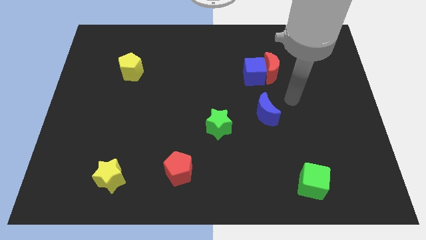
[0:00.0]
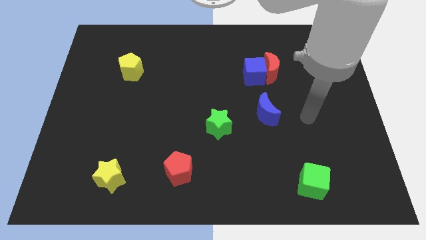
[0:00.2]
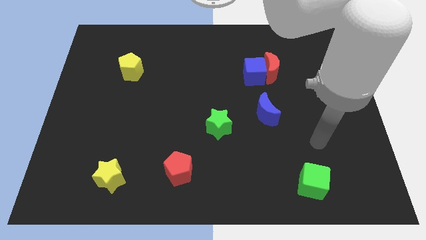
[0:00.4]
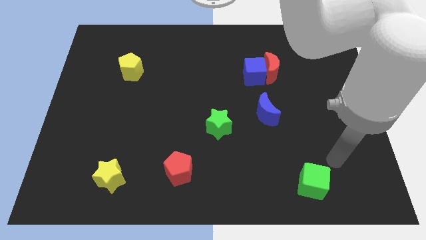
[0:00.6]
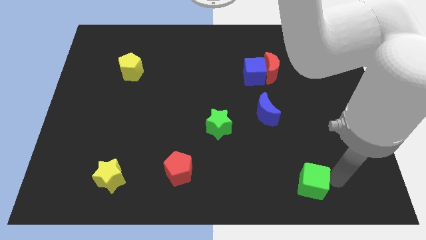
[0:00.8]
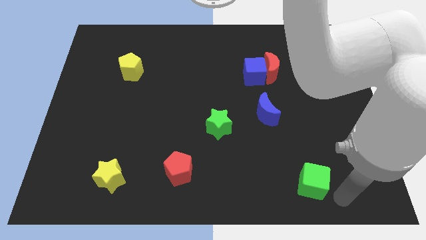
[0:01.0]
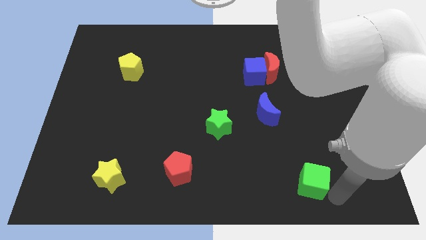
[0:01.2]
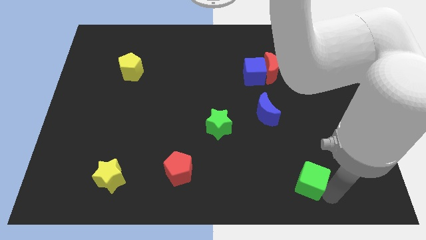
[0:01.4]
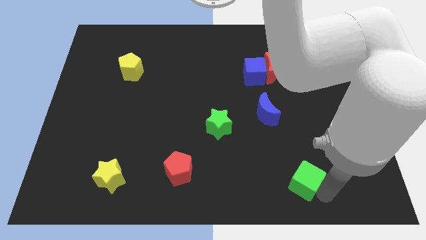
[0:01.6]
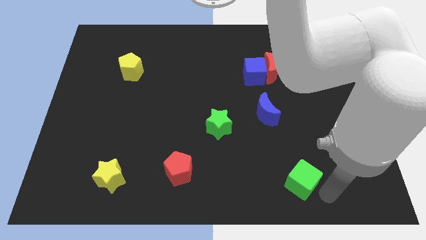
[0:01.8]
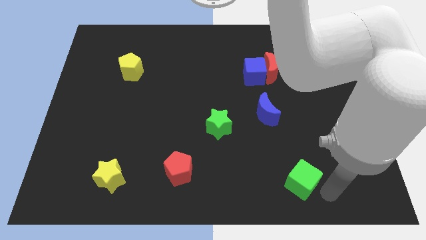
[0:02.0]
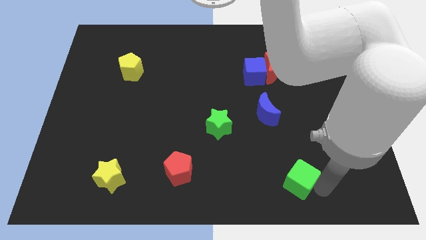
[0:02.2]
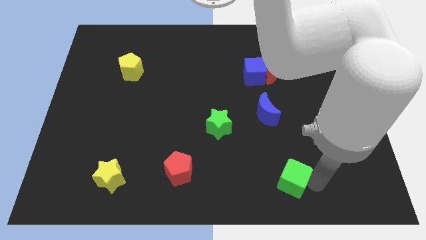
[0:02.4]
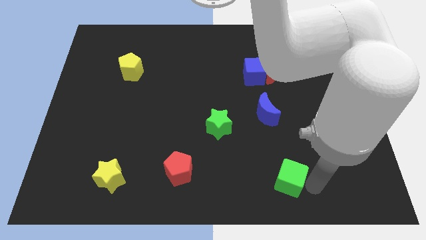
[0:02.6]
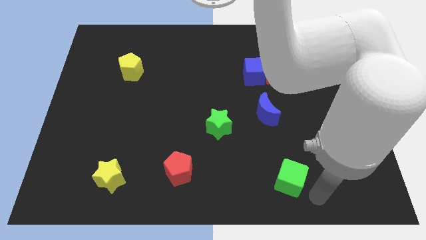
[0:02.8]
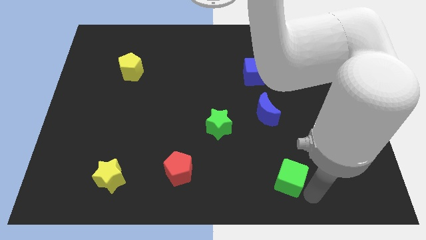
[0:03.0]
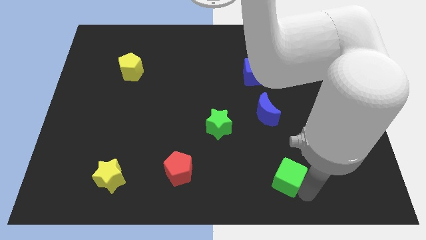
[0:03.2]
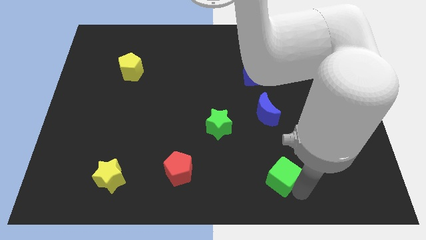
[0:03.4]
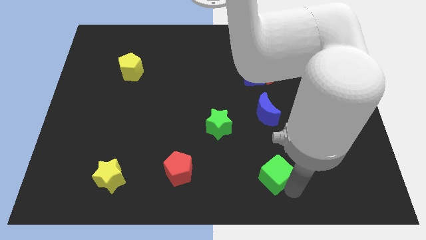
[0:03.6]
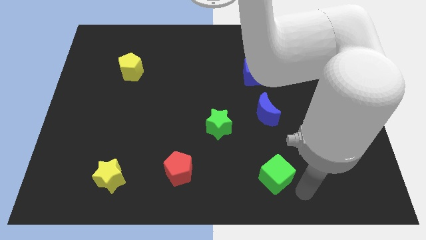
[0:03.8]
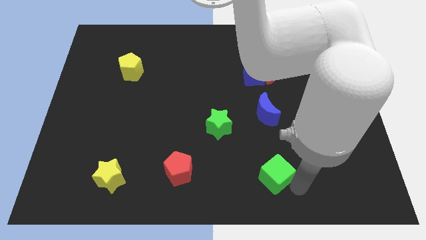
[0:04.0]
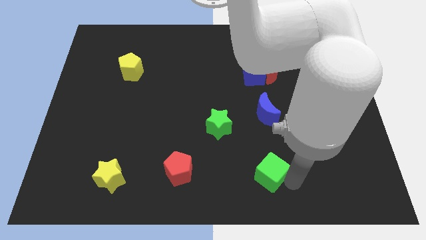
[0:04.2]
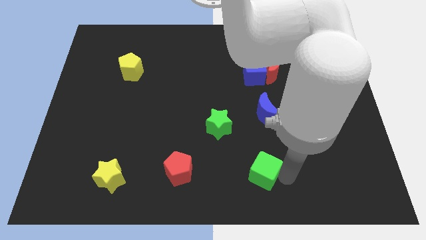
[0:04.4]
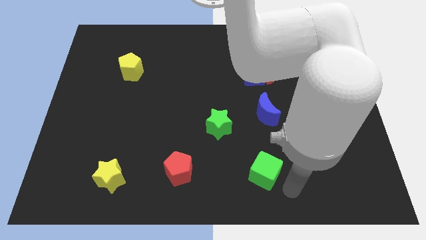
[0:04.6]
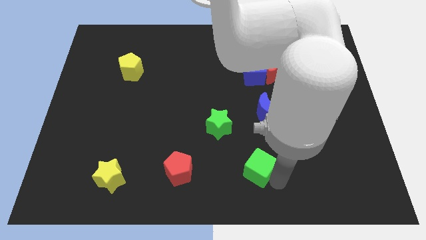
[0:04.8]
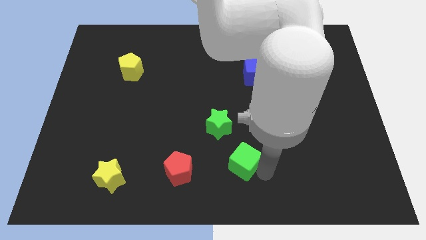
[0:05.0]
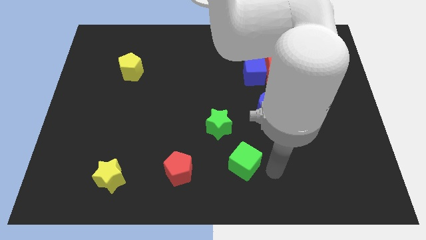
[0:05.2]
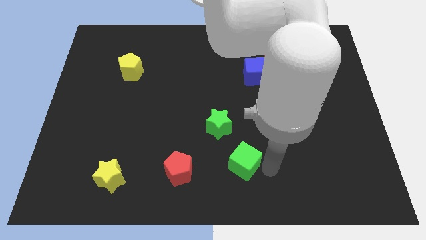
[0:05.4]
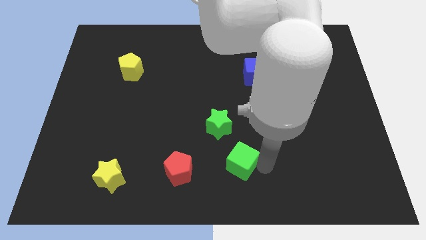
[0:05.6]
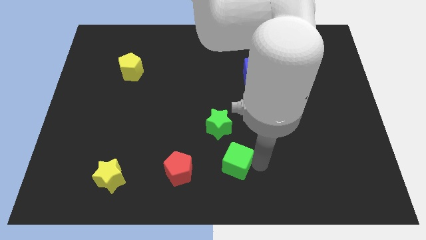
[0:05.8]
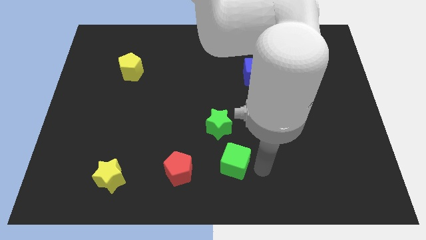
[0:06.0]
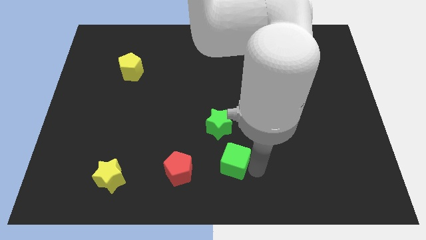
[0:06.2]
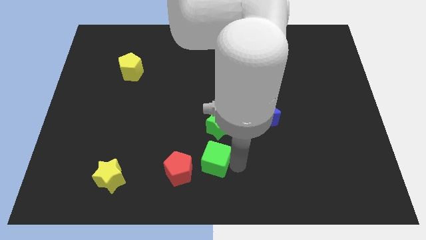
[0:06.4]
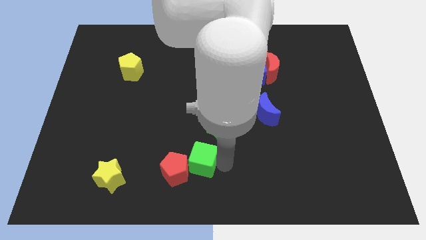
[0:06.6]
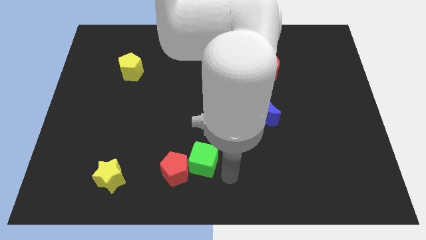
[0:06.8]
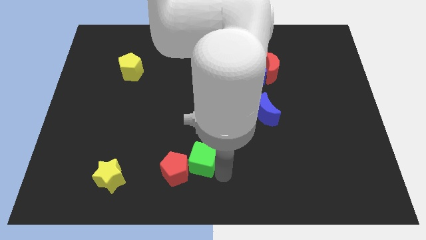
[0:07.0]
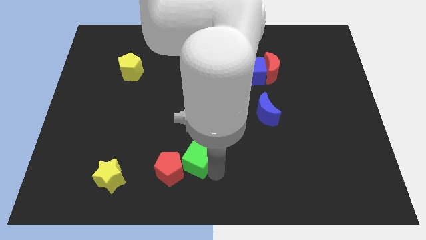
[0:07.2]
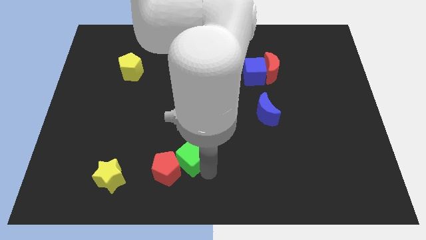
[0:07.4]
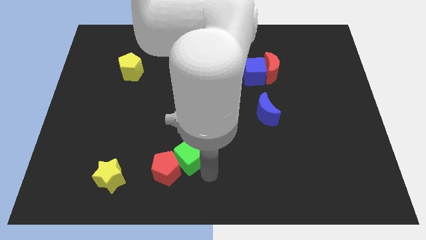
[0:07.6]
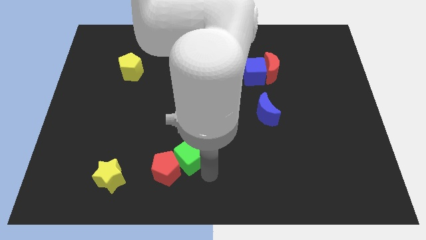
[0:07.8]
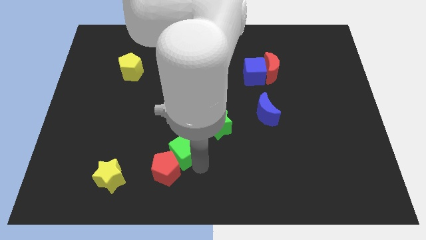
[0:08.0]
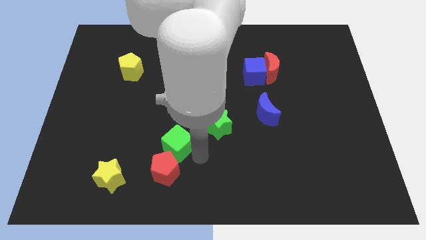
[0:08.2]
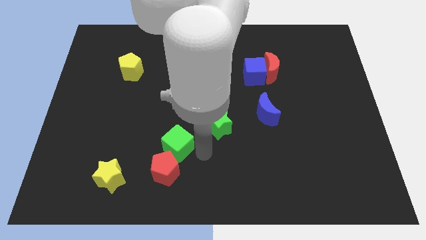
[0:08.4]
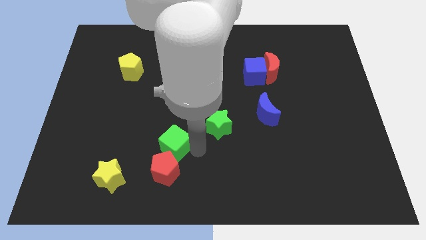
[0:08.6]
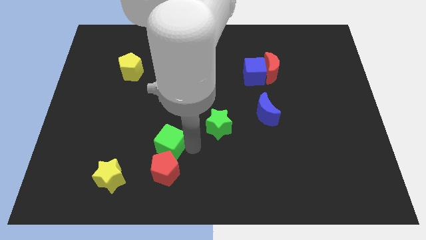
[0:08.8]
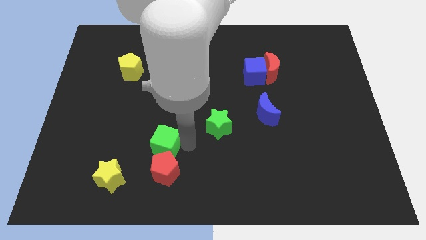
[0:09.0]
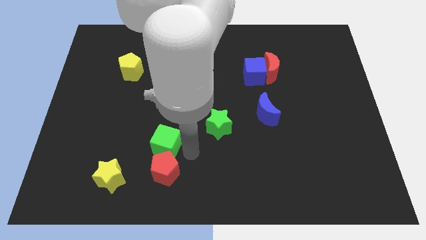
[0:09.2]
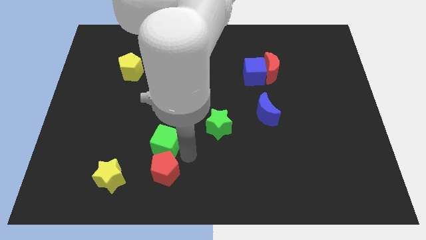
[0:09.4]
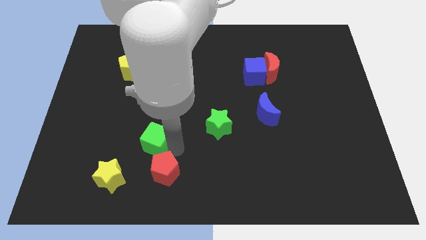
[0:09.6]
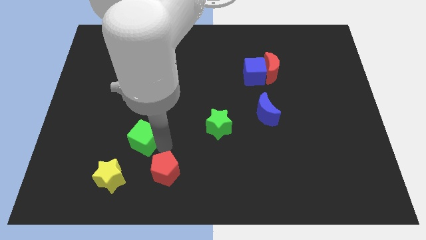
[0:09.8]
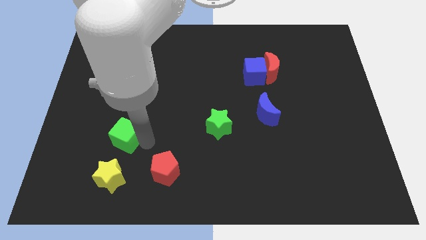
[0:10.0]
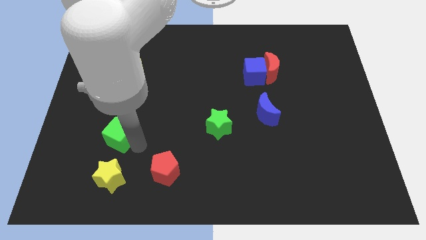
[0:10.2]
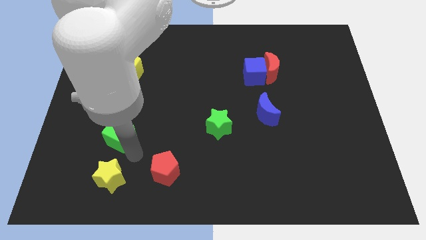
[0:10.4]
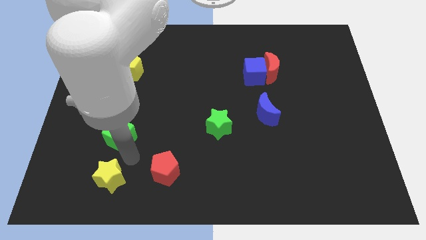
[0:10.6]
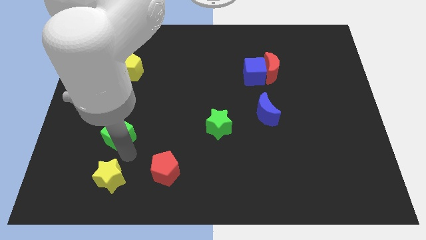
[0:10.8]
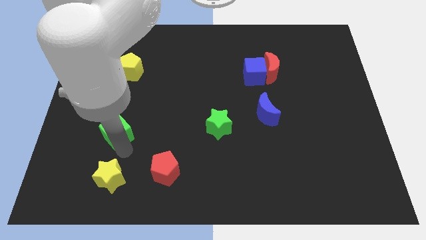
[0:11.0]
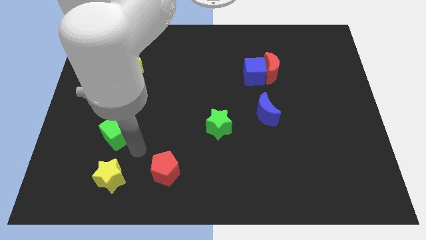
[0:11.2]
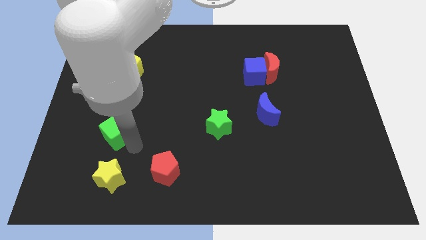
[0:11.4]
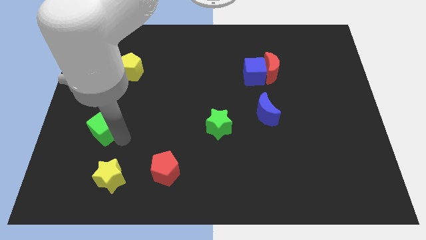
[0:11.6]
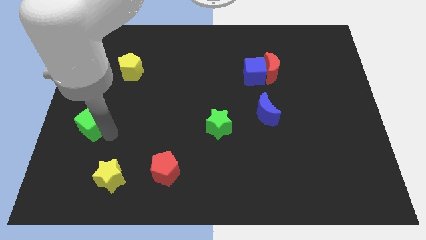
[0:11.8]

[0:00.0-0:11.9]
move the green cube to the left side
